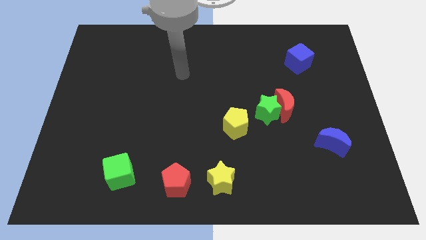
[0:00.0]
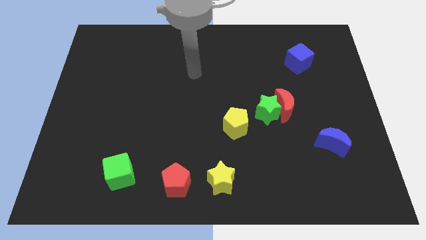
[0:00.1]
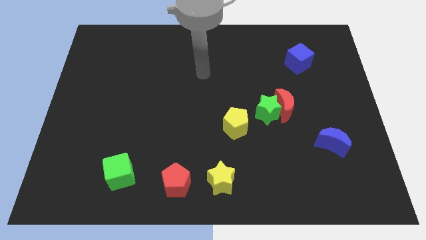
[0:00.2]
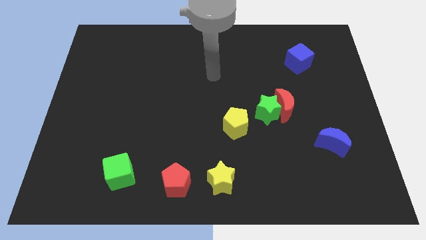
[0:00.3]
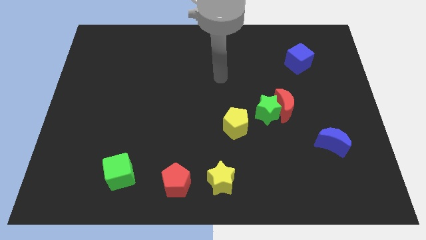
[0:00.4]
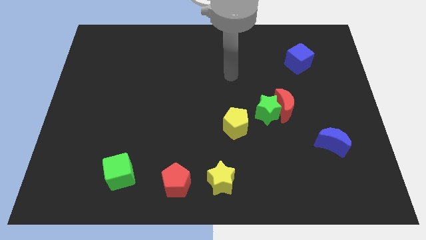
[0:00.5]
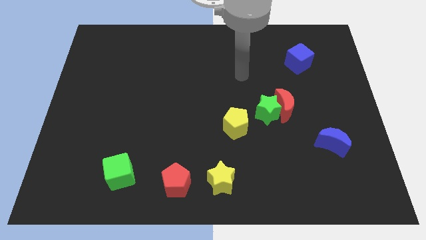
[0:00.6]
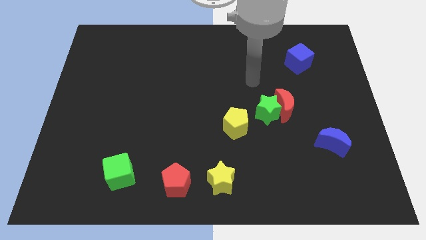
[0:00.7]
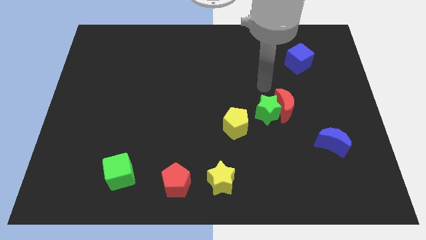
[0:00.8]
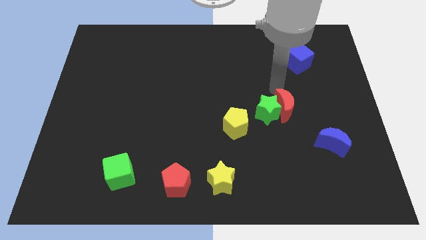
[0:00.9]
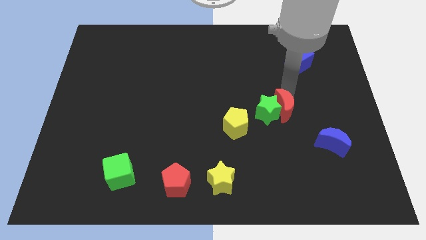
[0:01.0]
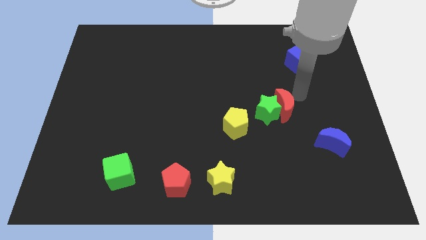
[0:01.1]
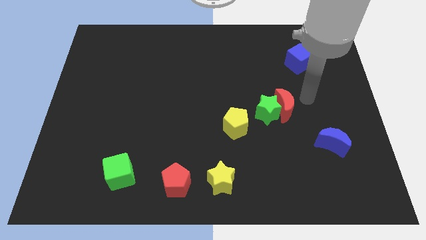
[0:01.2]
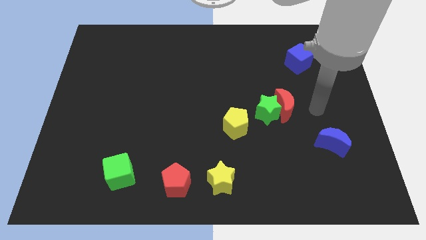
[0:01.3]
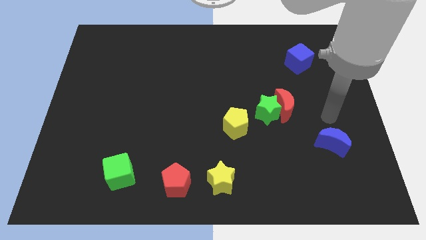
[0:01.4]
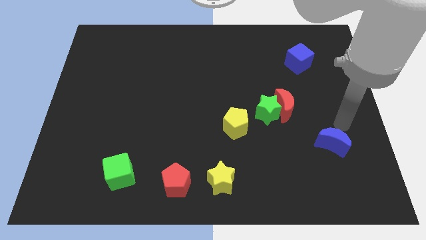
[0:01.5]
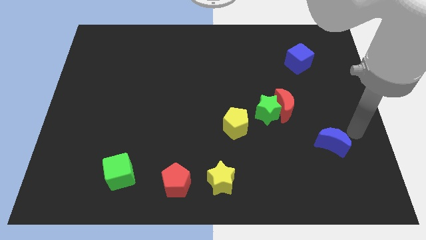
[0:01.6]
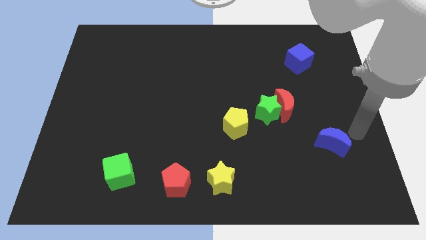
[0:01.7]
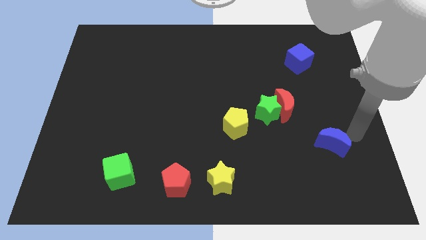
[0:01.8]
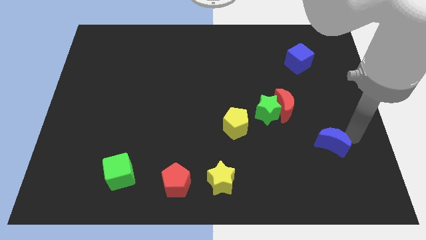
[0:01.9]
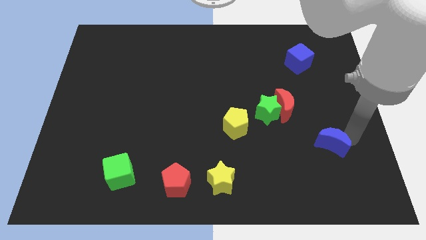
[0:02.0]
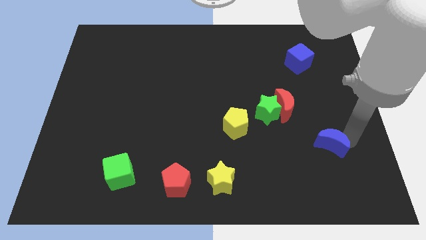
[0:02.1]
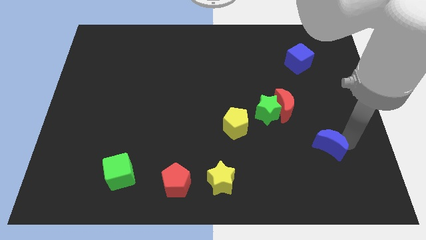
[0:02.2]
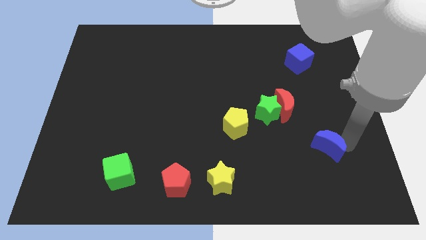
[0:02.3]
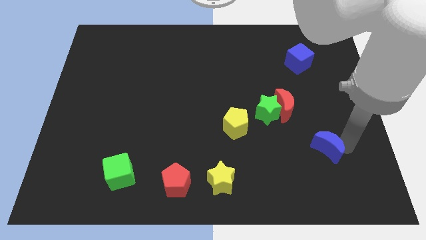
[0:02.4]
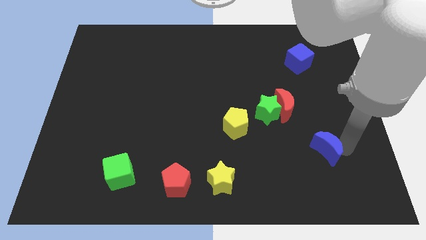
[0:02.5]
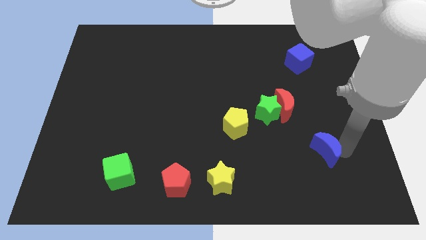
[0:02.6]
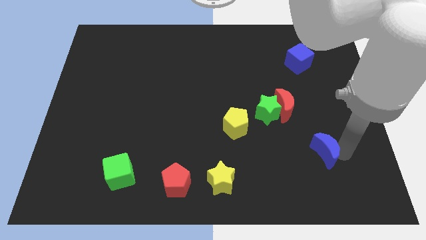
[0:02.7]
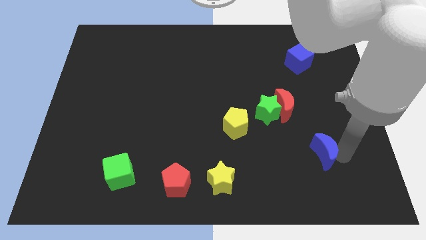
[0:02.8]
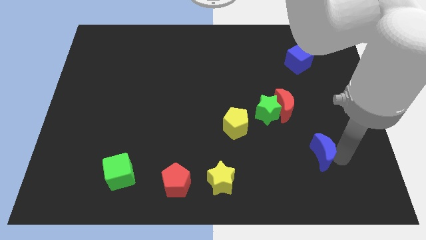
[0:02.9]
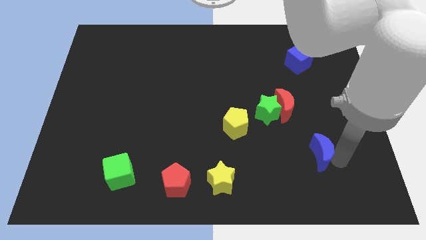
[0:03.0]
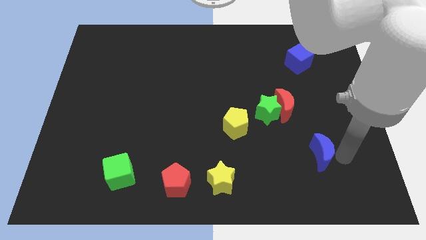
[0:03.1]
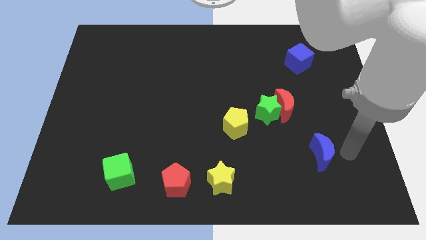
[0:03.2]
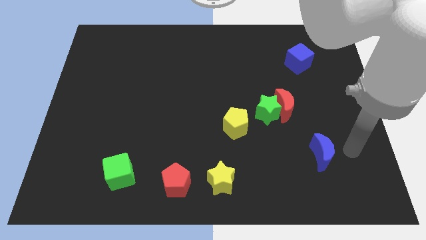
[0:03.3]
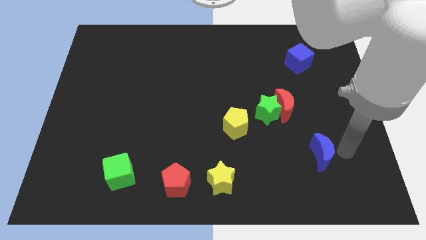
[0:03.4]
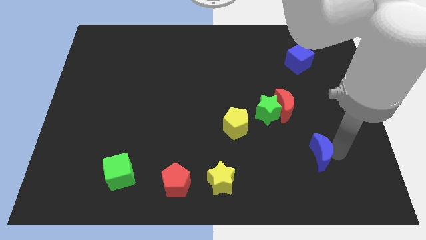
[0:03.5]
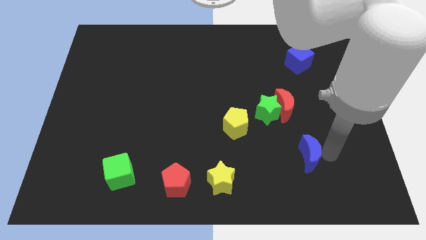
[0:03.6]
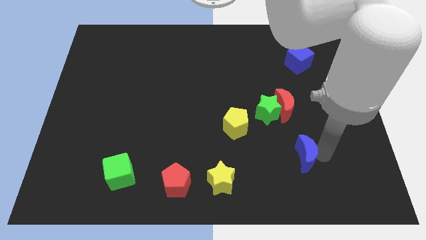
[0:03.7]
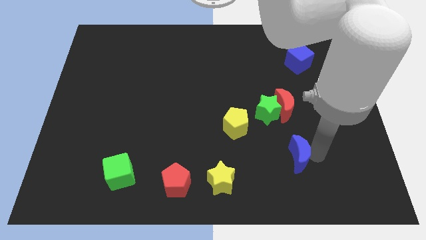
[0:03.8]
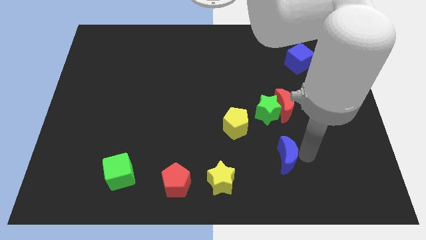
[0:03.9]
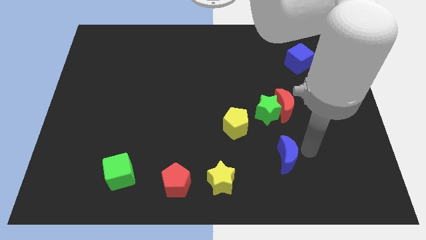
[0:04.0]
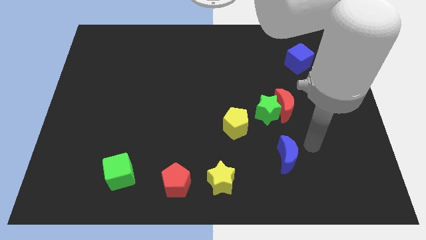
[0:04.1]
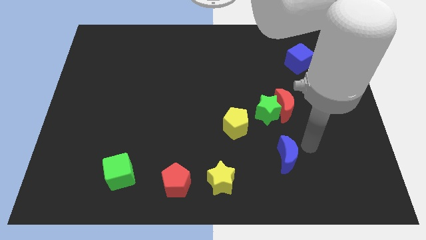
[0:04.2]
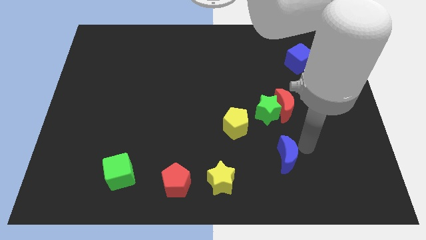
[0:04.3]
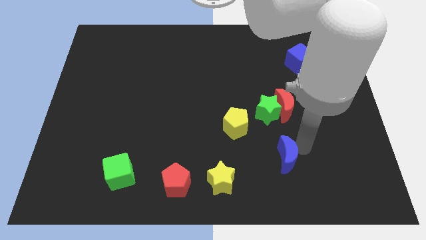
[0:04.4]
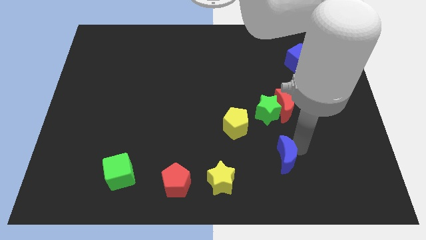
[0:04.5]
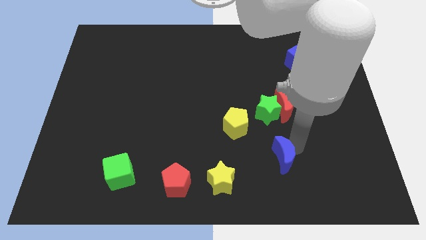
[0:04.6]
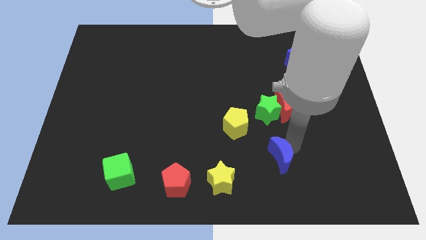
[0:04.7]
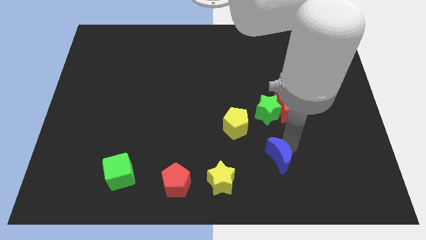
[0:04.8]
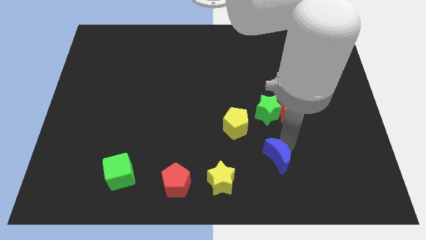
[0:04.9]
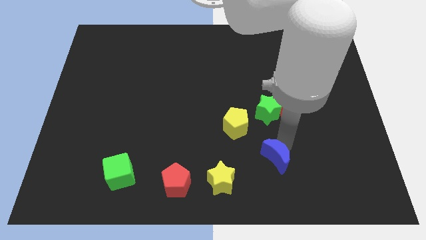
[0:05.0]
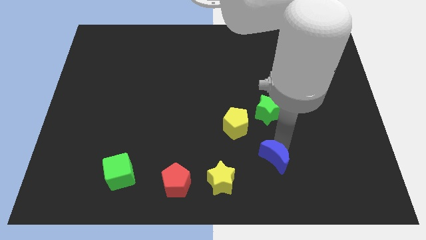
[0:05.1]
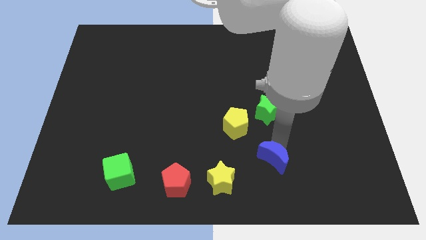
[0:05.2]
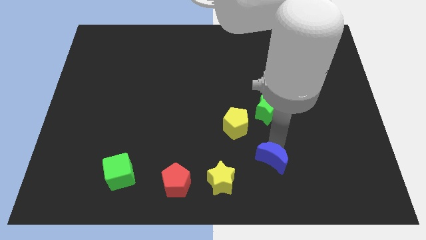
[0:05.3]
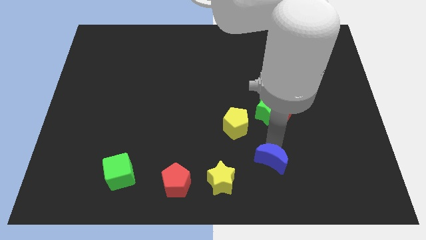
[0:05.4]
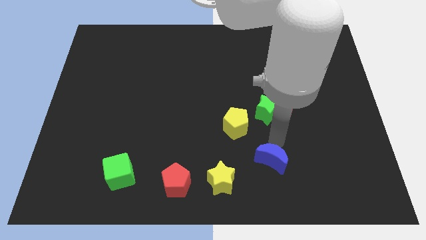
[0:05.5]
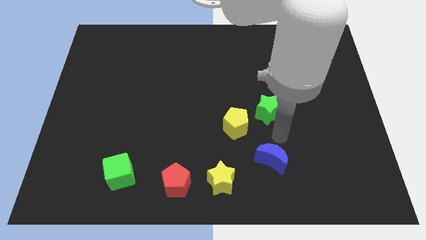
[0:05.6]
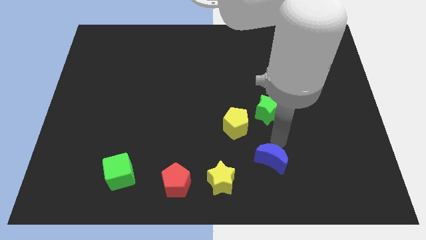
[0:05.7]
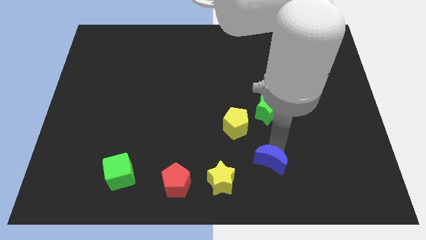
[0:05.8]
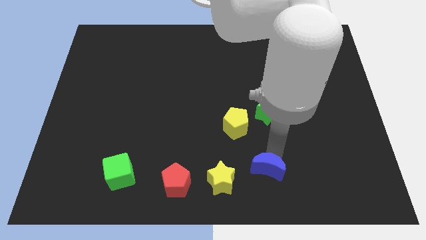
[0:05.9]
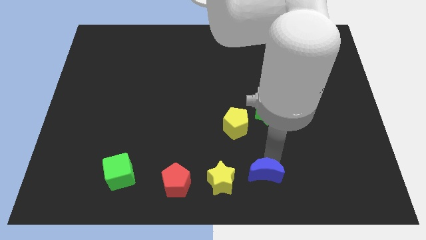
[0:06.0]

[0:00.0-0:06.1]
push the blue moon to the bottom
